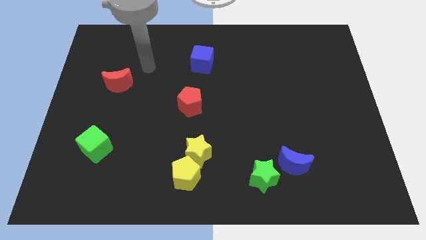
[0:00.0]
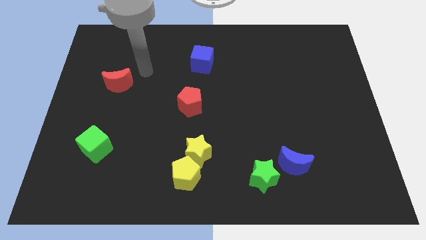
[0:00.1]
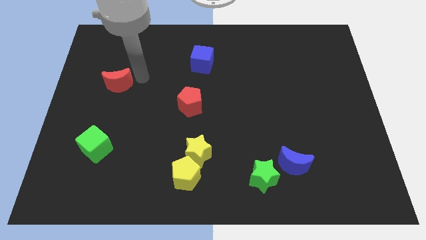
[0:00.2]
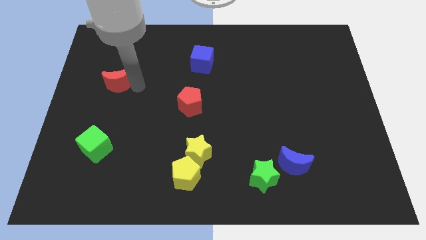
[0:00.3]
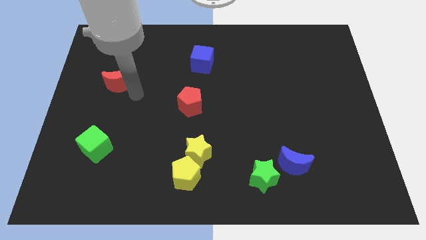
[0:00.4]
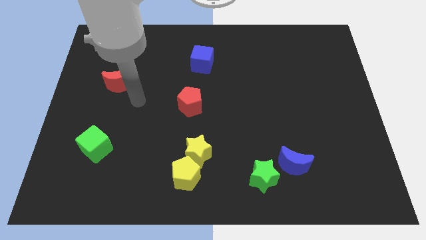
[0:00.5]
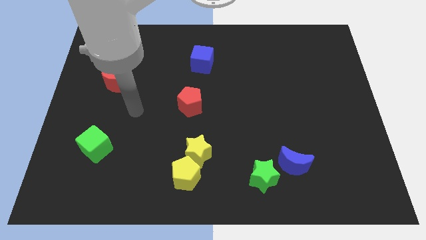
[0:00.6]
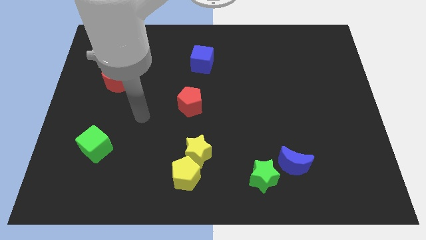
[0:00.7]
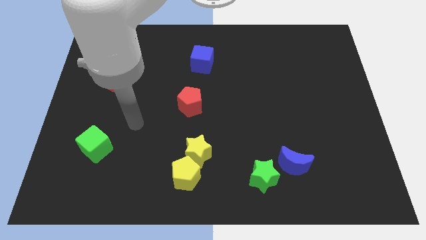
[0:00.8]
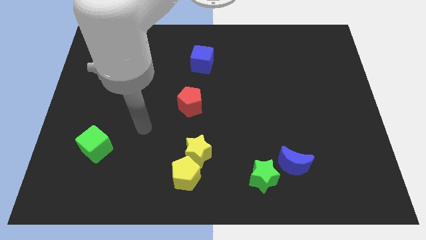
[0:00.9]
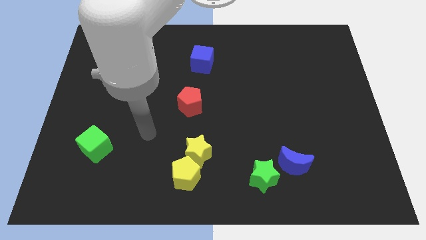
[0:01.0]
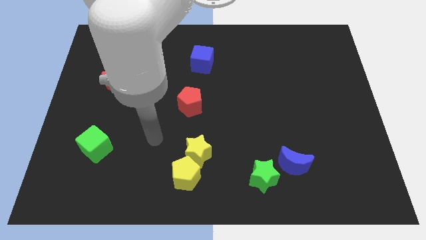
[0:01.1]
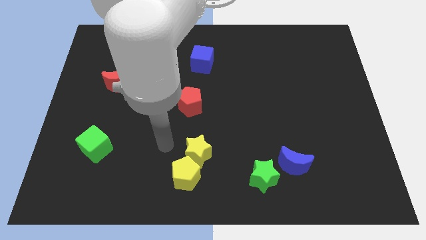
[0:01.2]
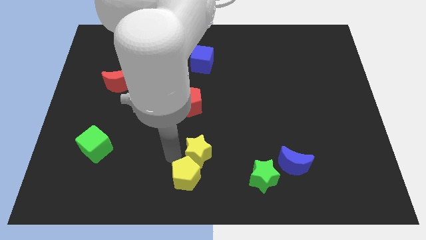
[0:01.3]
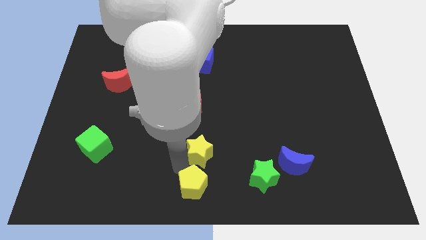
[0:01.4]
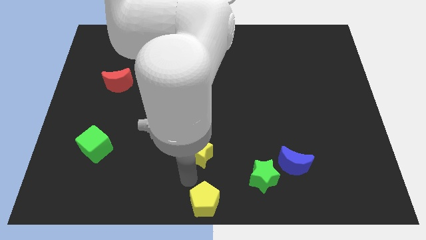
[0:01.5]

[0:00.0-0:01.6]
move the yellow star away from the yellow pentagon

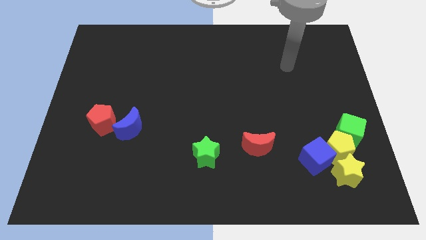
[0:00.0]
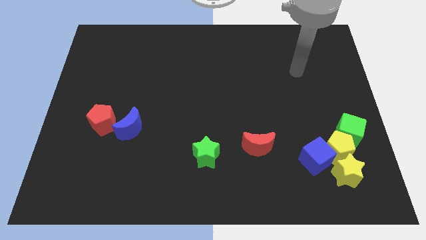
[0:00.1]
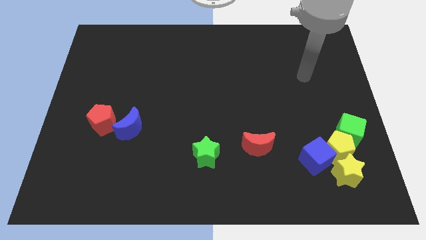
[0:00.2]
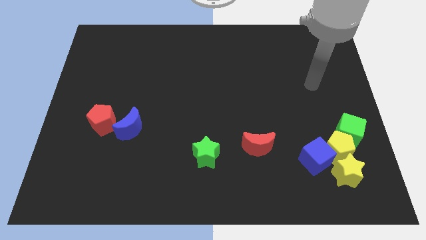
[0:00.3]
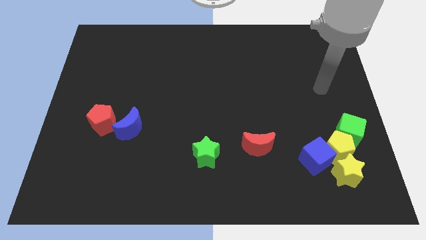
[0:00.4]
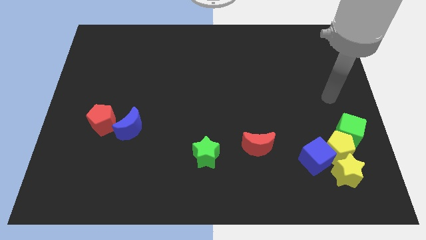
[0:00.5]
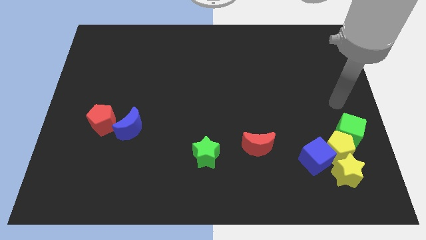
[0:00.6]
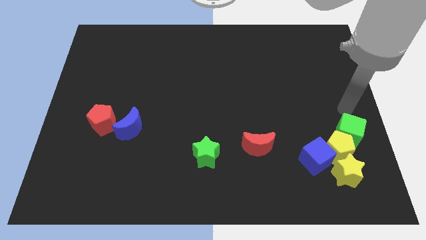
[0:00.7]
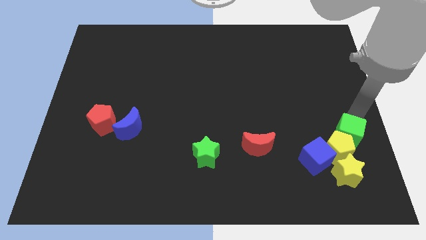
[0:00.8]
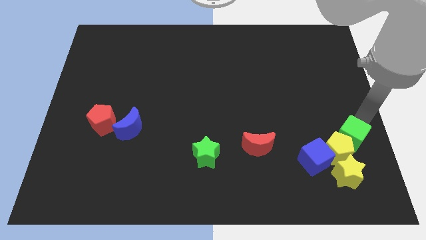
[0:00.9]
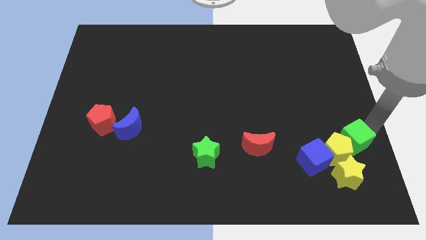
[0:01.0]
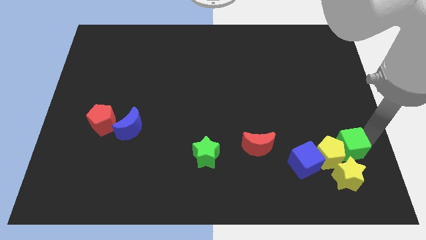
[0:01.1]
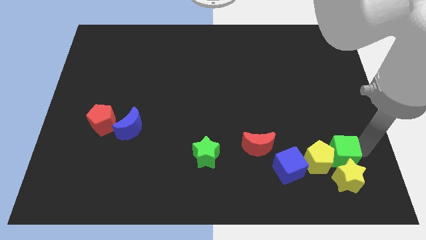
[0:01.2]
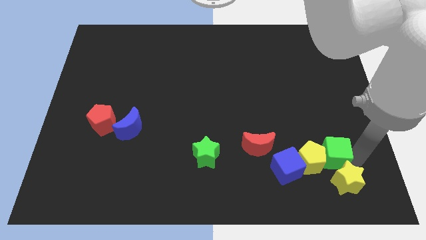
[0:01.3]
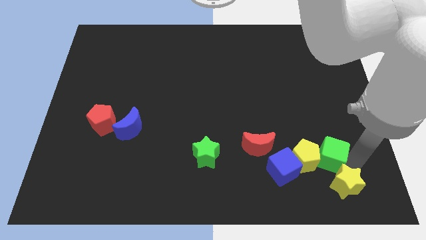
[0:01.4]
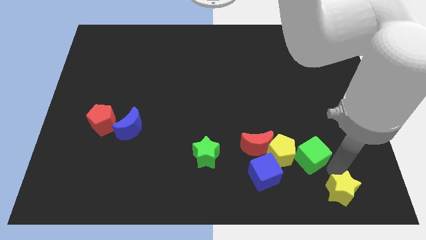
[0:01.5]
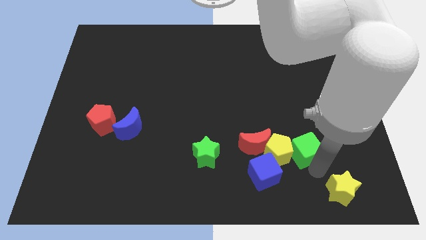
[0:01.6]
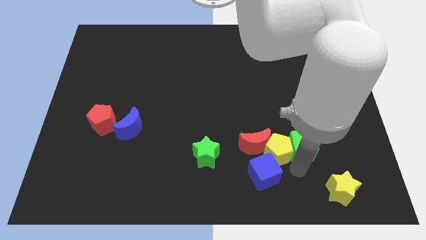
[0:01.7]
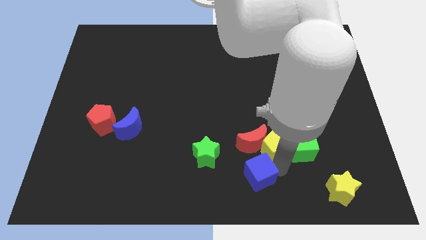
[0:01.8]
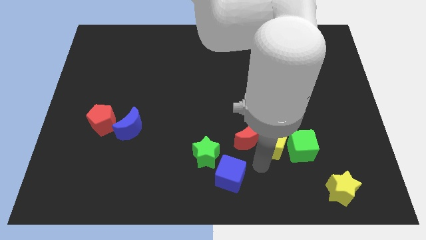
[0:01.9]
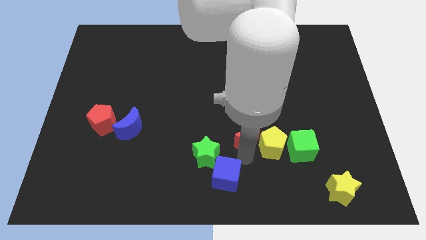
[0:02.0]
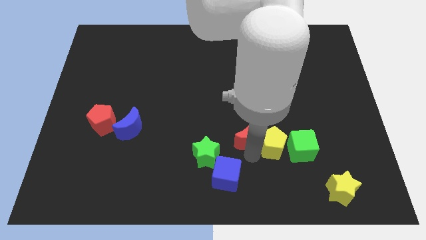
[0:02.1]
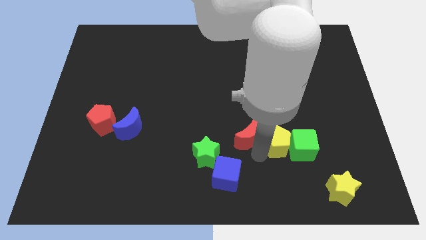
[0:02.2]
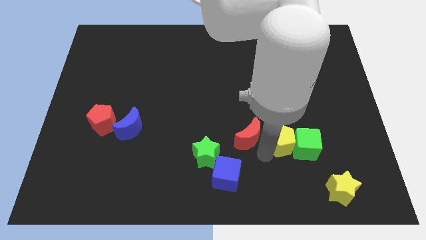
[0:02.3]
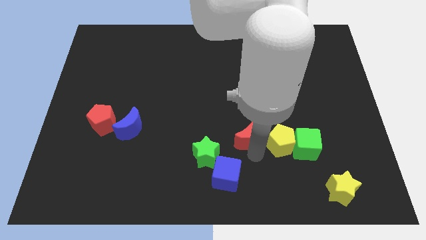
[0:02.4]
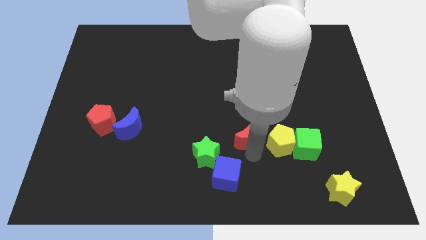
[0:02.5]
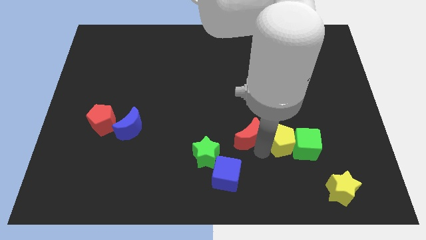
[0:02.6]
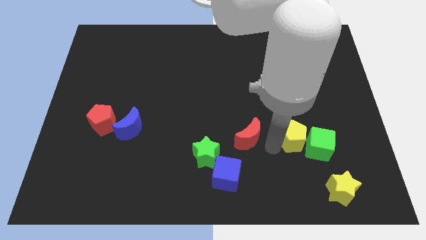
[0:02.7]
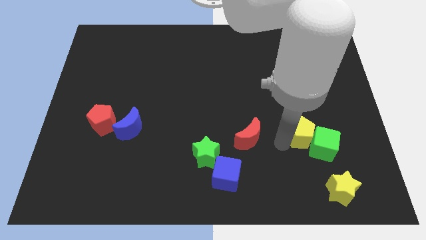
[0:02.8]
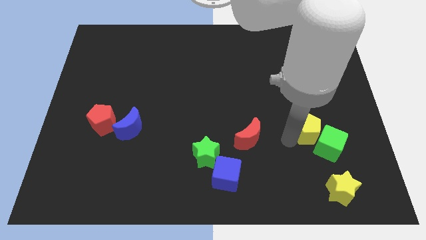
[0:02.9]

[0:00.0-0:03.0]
pull the yellow pentagon apart from the group

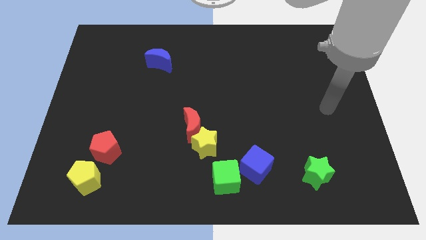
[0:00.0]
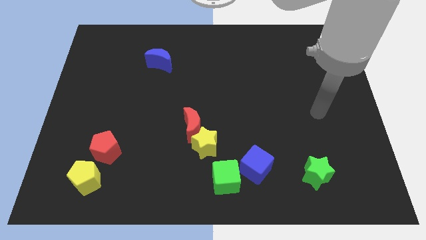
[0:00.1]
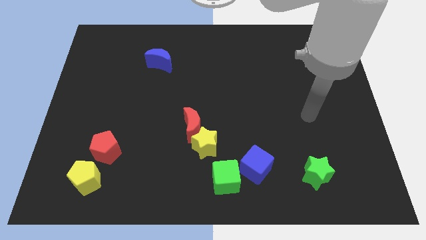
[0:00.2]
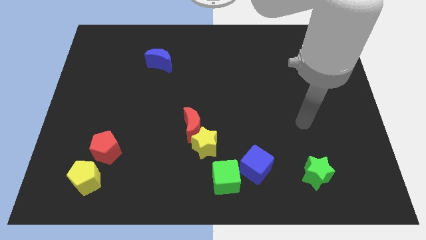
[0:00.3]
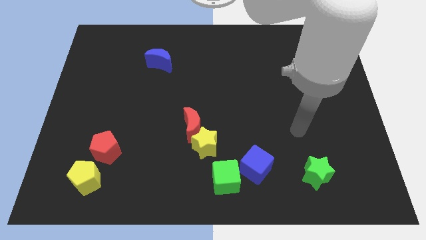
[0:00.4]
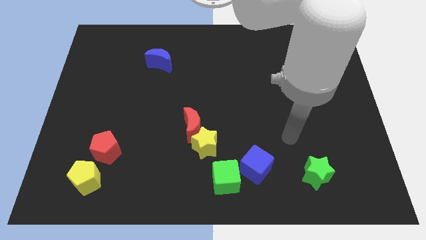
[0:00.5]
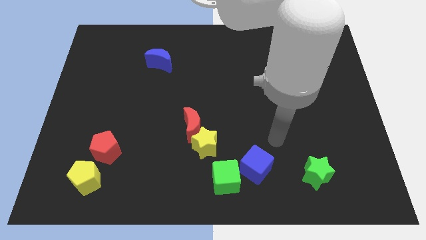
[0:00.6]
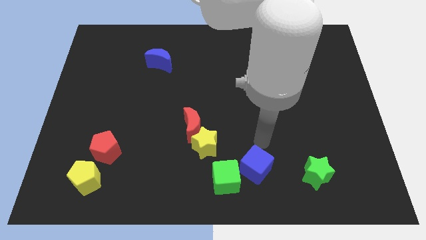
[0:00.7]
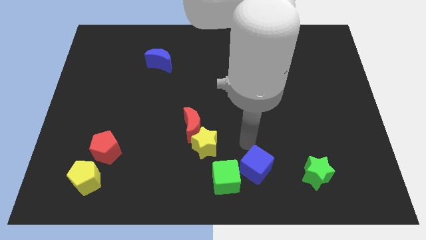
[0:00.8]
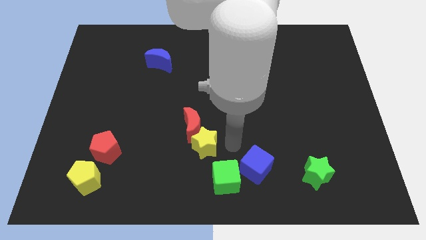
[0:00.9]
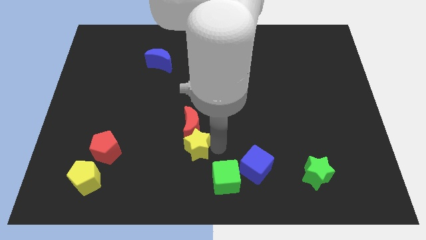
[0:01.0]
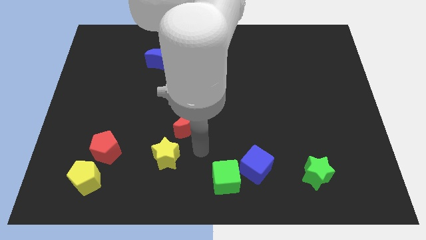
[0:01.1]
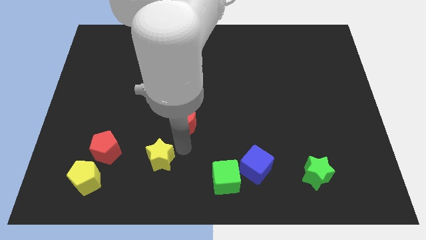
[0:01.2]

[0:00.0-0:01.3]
move the red moon away from the yellow star

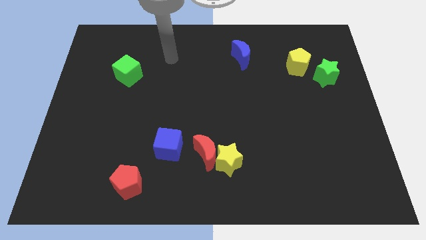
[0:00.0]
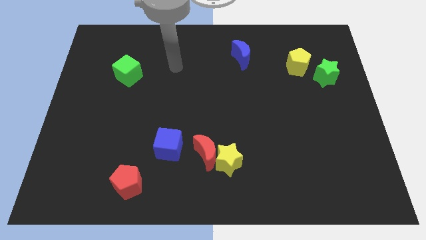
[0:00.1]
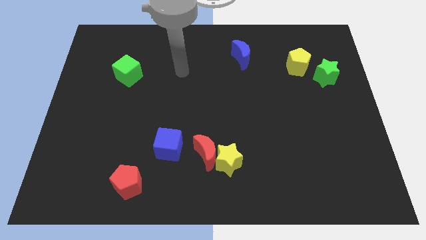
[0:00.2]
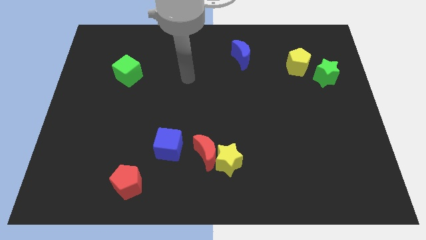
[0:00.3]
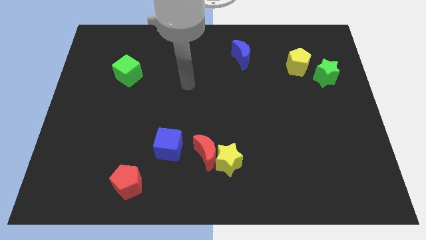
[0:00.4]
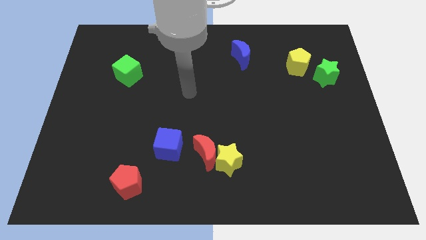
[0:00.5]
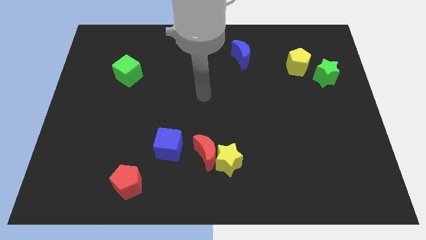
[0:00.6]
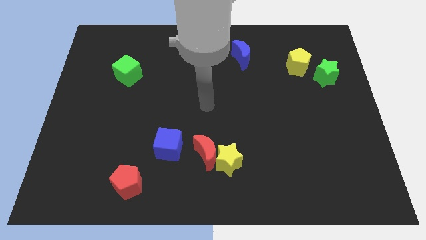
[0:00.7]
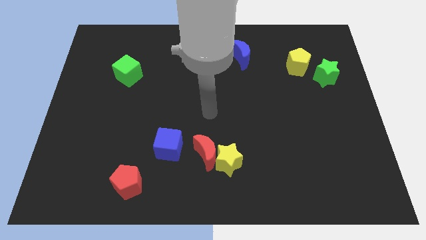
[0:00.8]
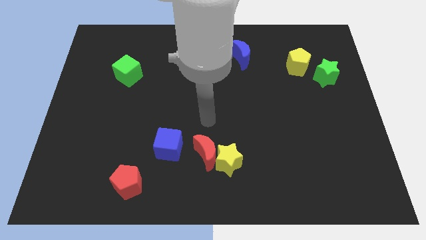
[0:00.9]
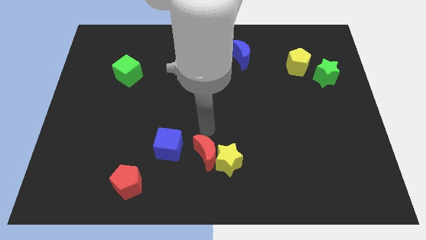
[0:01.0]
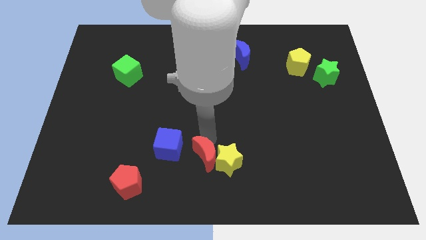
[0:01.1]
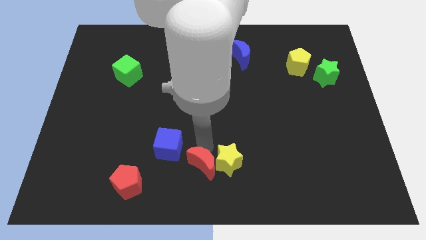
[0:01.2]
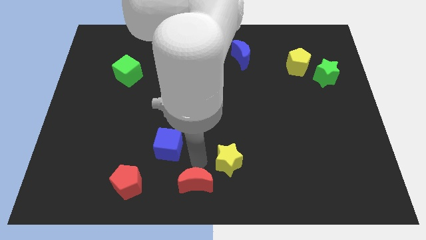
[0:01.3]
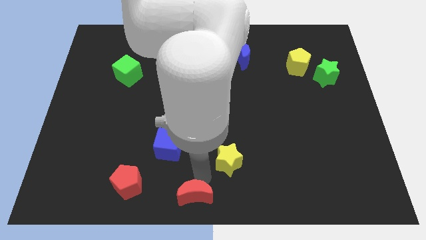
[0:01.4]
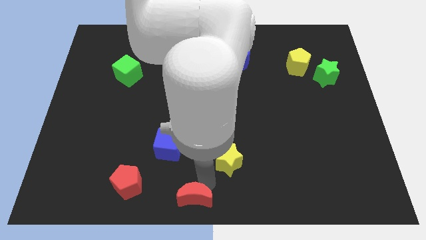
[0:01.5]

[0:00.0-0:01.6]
separate the yellow star from the red moon

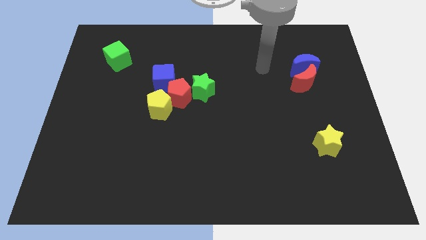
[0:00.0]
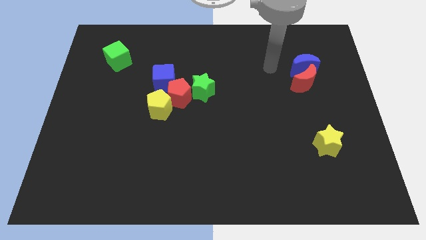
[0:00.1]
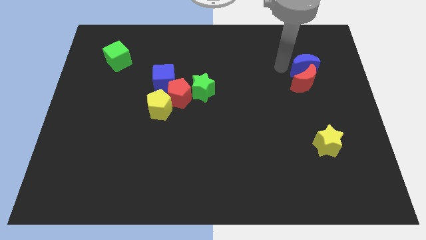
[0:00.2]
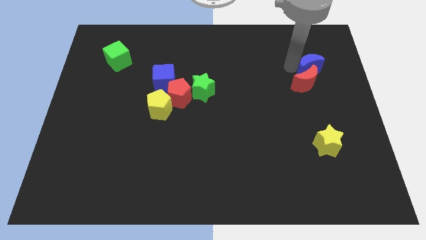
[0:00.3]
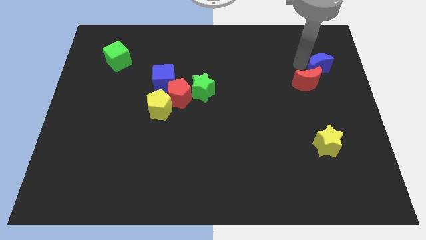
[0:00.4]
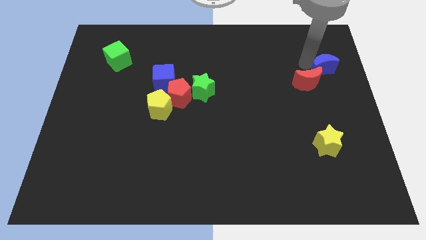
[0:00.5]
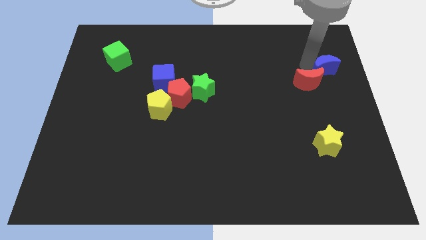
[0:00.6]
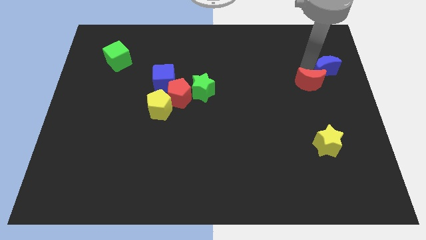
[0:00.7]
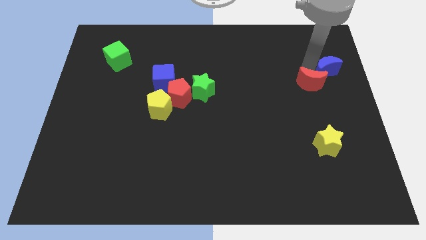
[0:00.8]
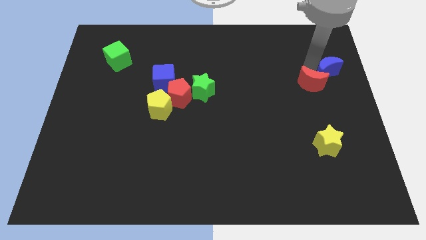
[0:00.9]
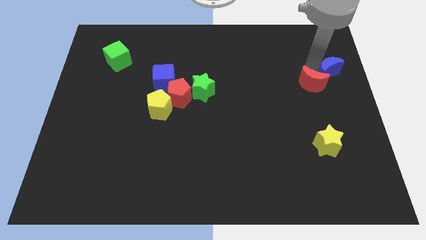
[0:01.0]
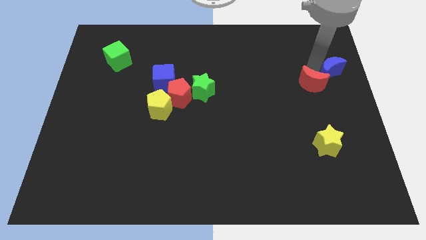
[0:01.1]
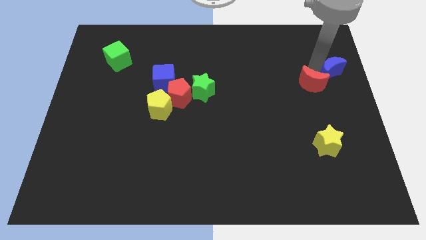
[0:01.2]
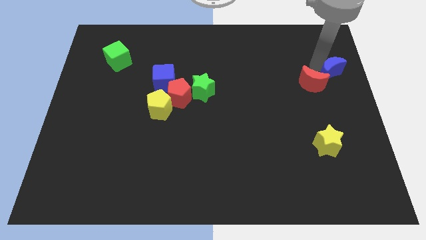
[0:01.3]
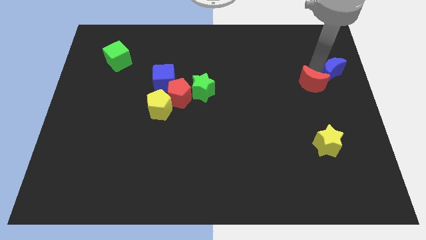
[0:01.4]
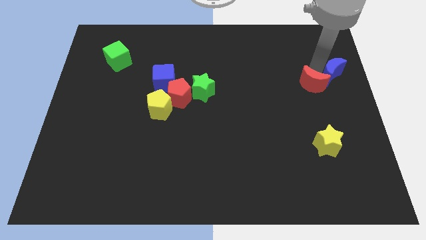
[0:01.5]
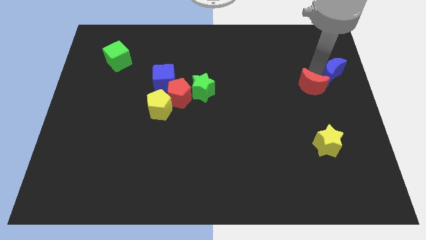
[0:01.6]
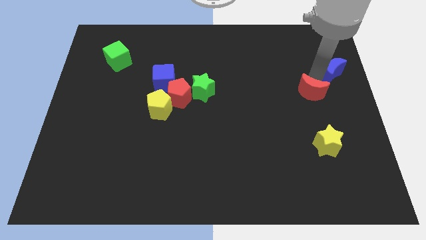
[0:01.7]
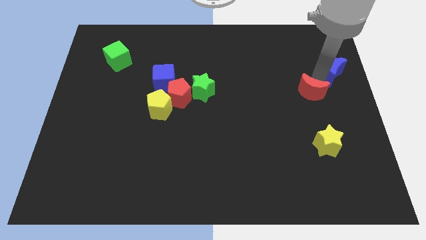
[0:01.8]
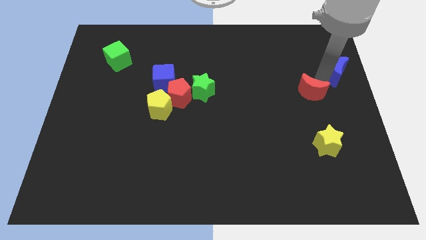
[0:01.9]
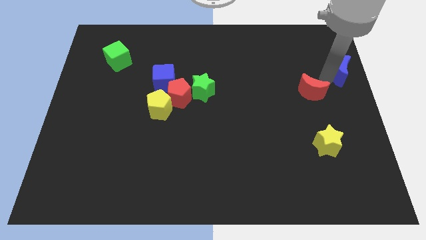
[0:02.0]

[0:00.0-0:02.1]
separate the red moon from the blue moon
